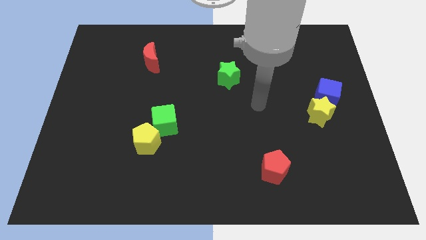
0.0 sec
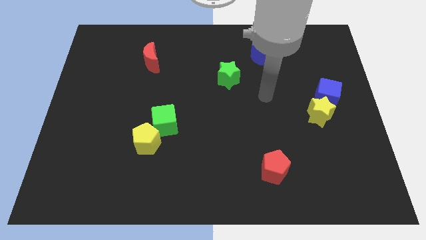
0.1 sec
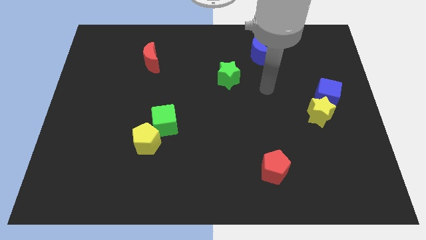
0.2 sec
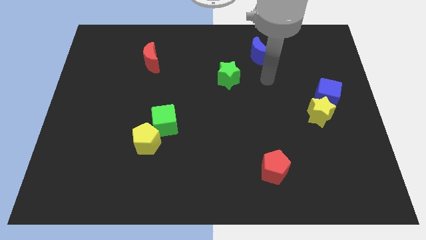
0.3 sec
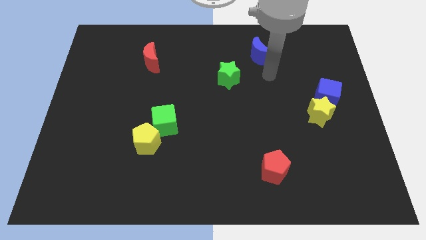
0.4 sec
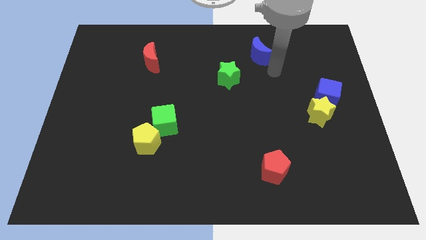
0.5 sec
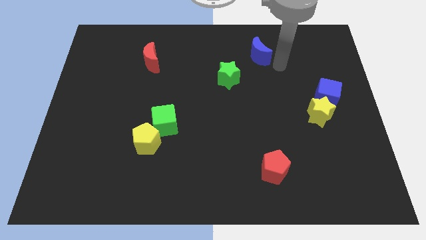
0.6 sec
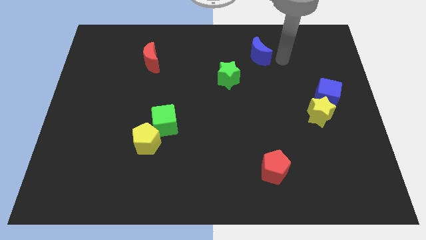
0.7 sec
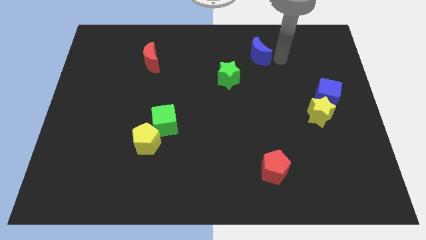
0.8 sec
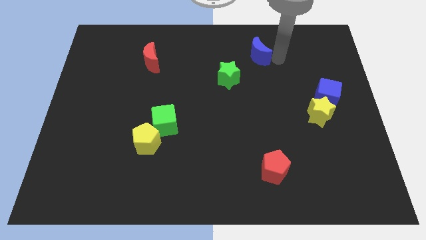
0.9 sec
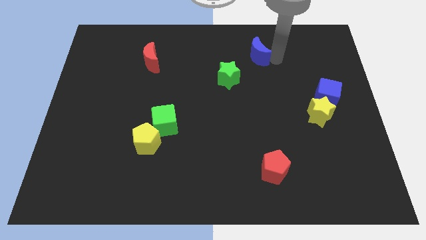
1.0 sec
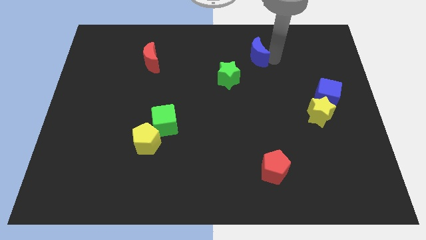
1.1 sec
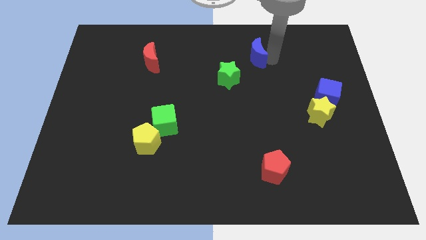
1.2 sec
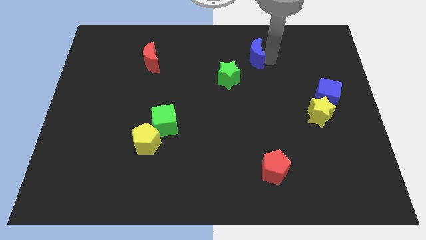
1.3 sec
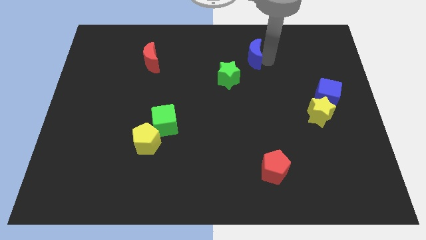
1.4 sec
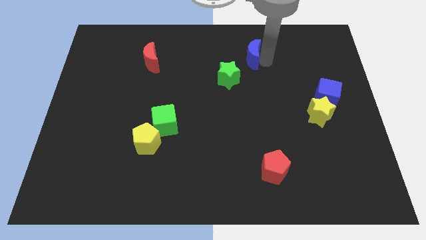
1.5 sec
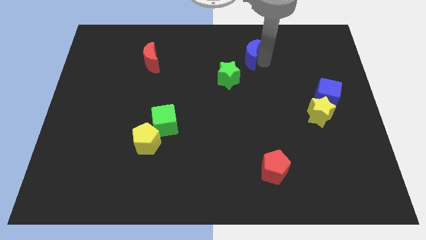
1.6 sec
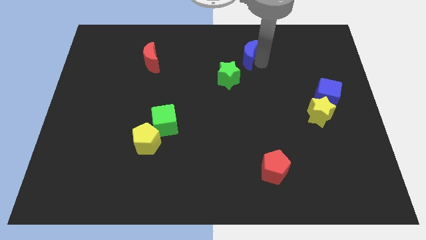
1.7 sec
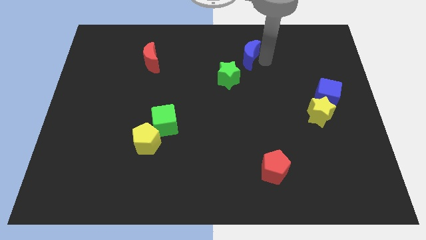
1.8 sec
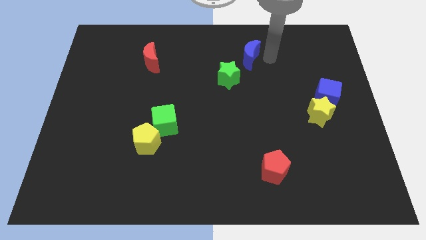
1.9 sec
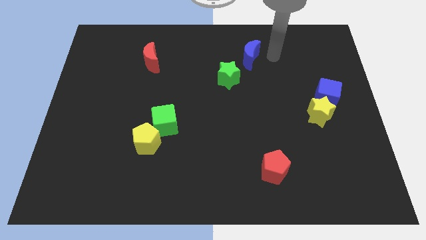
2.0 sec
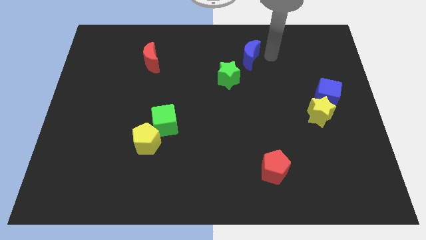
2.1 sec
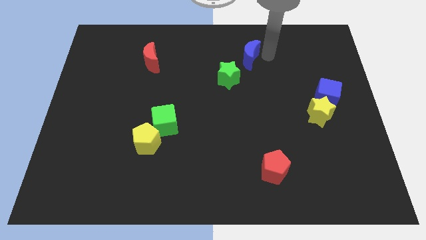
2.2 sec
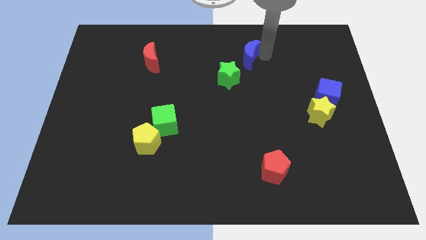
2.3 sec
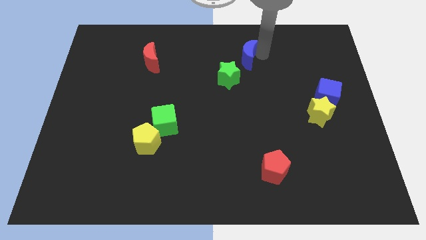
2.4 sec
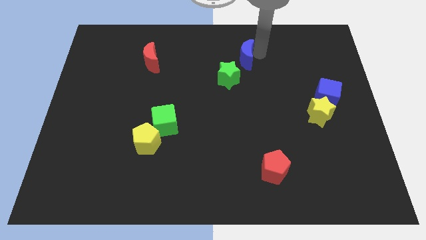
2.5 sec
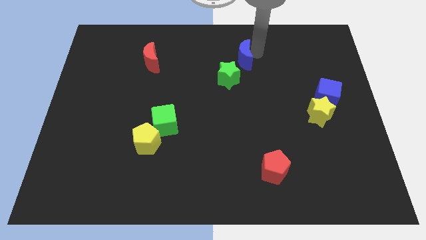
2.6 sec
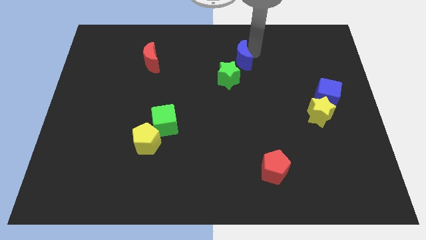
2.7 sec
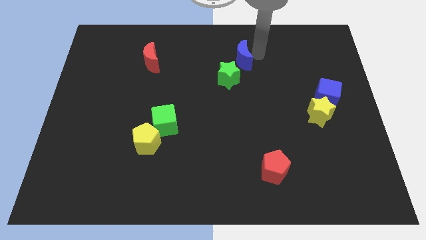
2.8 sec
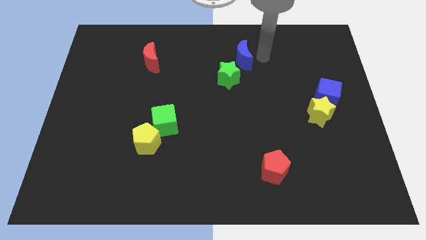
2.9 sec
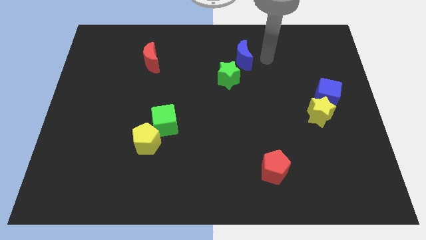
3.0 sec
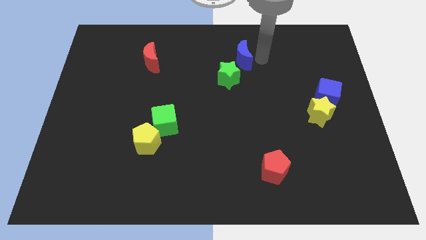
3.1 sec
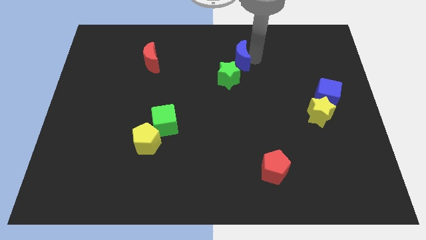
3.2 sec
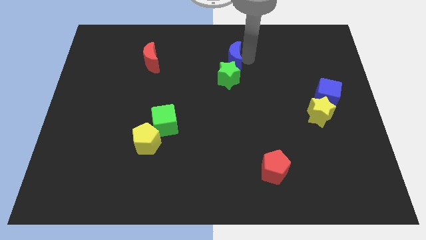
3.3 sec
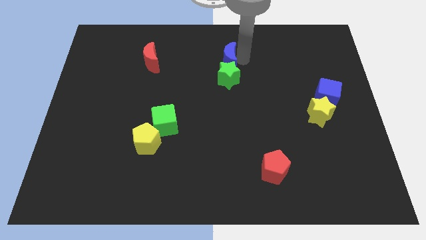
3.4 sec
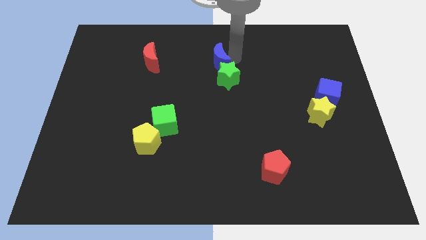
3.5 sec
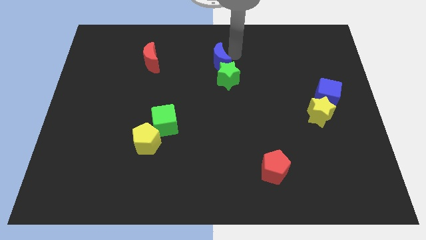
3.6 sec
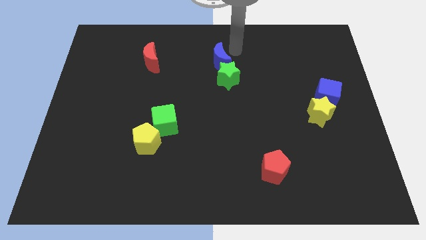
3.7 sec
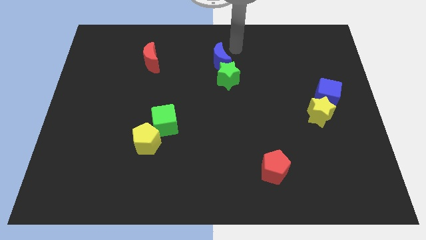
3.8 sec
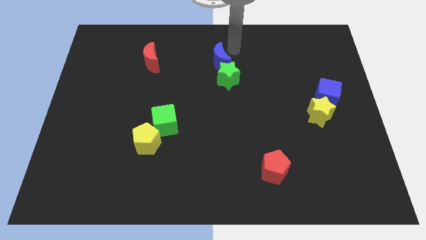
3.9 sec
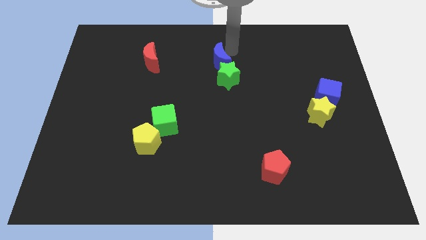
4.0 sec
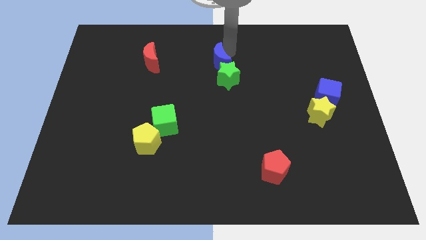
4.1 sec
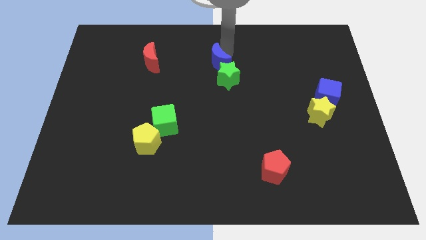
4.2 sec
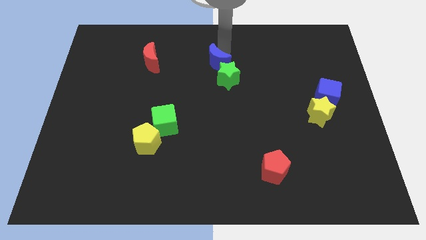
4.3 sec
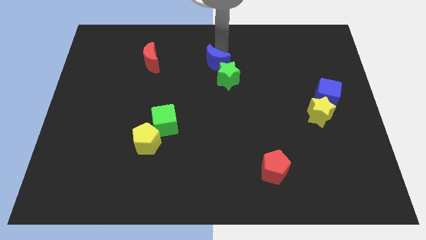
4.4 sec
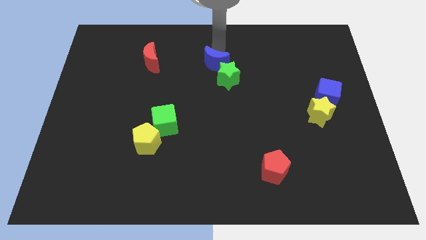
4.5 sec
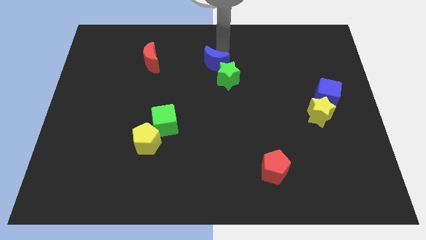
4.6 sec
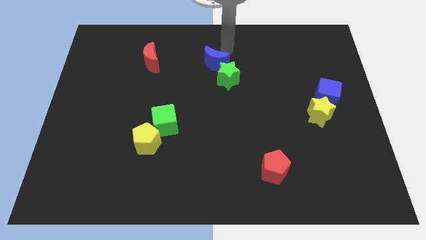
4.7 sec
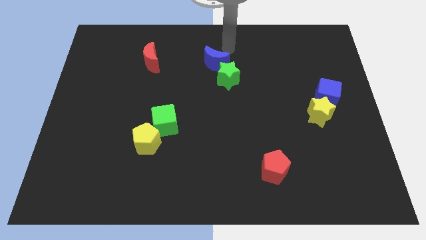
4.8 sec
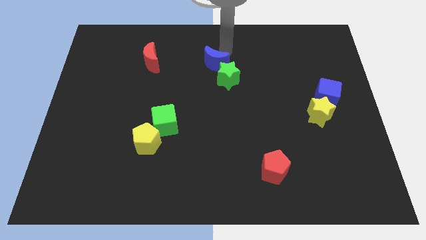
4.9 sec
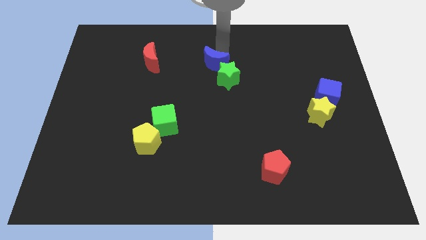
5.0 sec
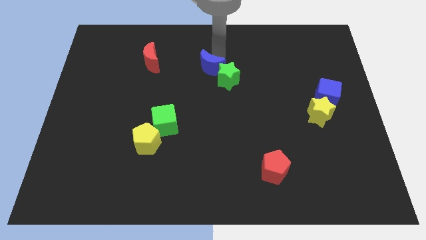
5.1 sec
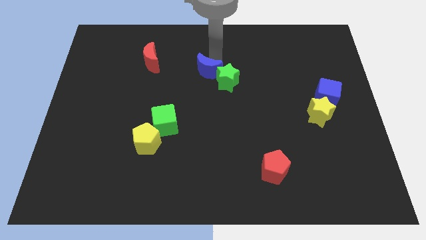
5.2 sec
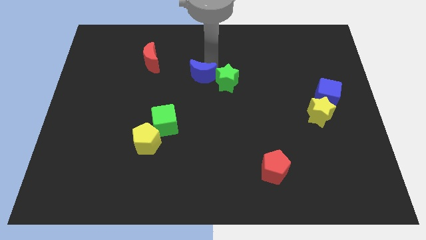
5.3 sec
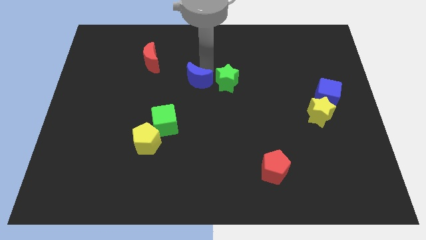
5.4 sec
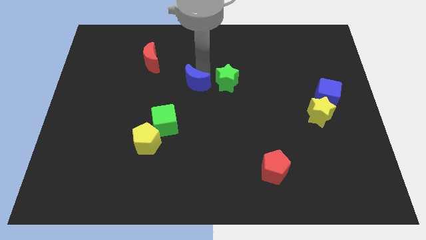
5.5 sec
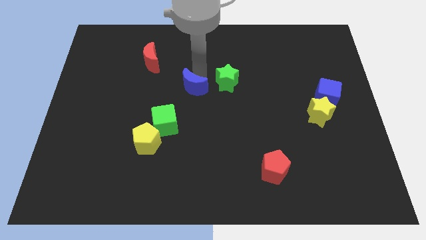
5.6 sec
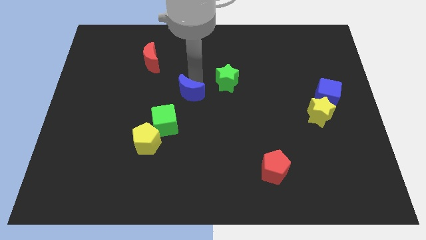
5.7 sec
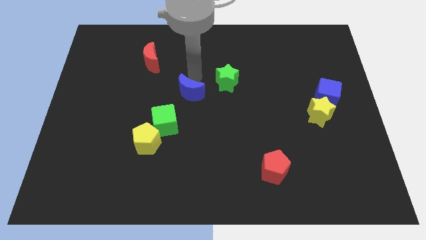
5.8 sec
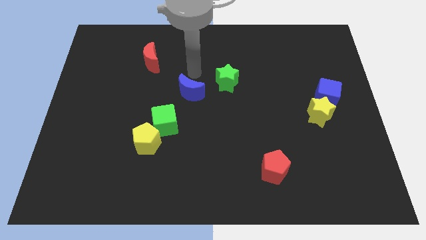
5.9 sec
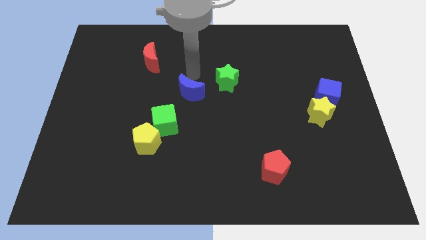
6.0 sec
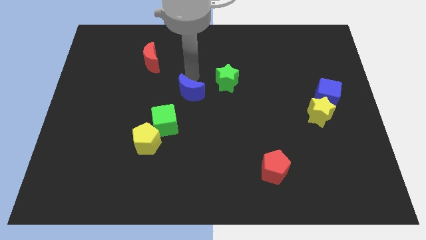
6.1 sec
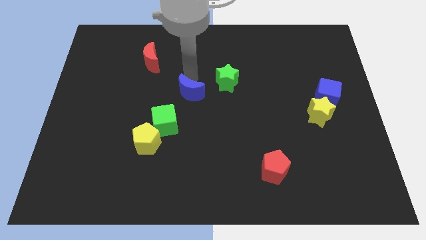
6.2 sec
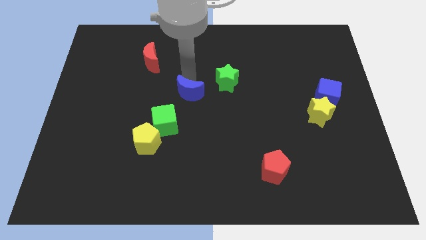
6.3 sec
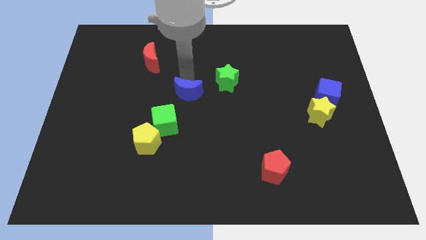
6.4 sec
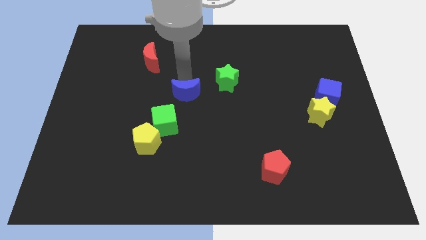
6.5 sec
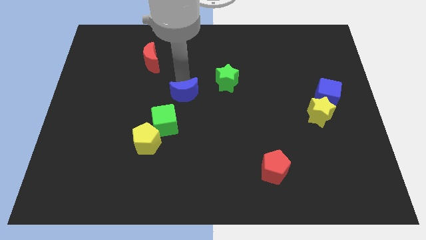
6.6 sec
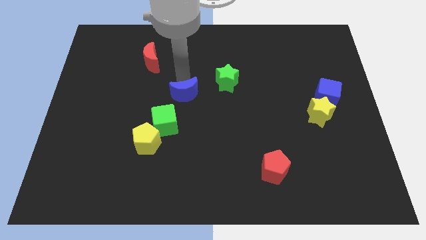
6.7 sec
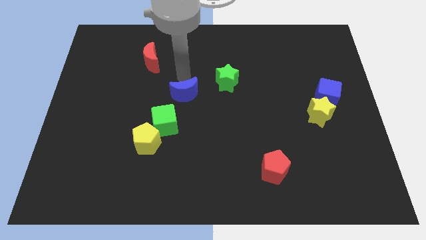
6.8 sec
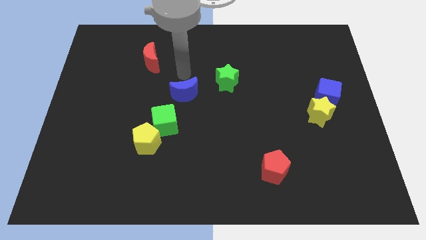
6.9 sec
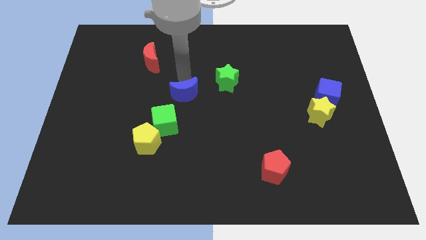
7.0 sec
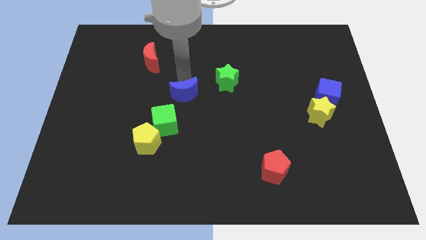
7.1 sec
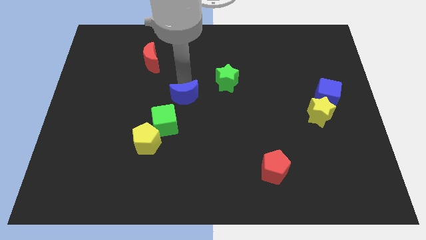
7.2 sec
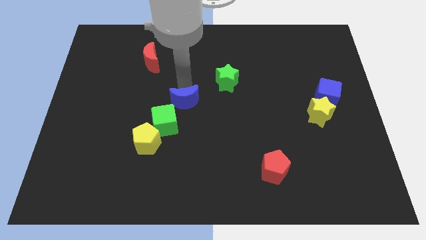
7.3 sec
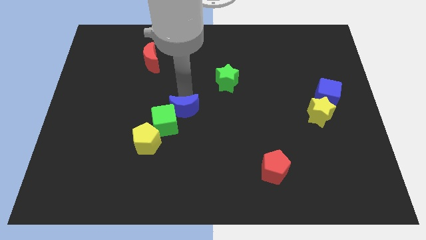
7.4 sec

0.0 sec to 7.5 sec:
move the blue moon diagonally up and to the right of the yellow pentagon
